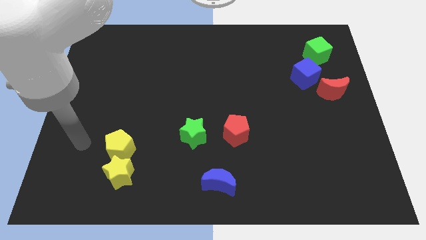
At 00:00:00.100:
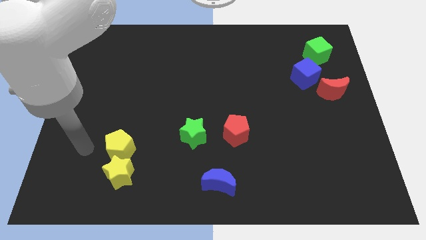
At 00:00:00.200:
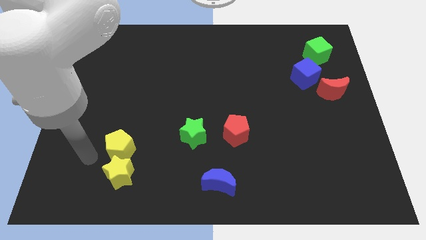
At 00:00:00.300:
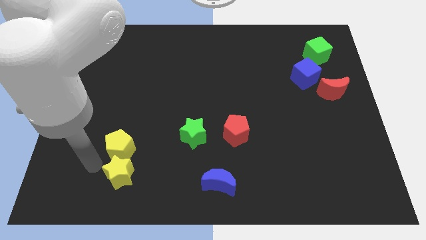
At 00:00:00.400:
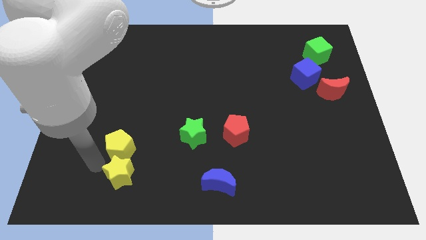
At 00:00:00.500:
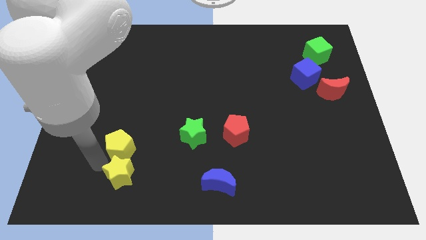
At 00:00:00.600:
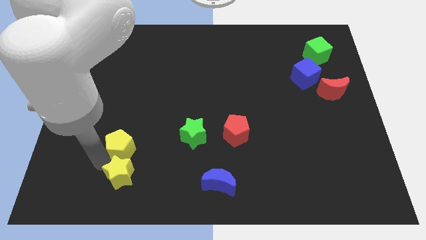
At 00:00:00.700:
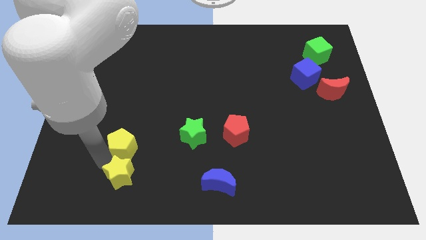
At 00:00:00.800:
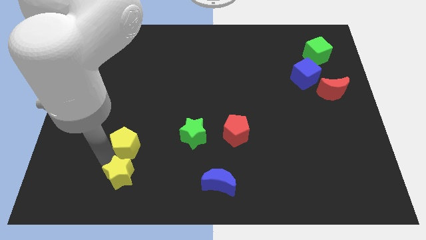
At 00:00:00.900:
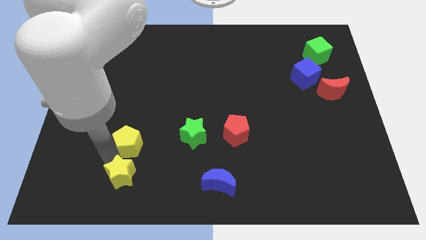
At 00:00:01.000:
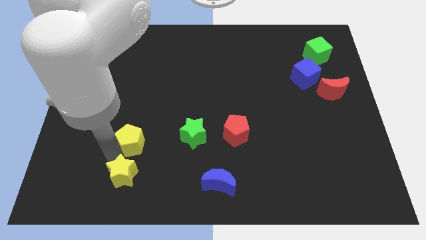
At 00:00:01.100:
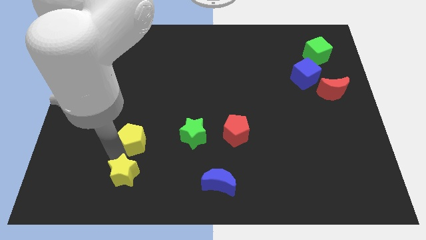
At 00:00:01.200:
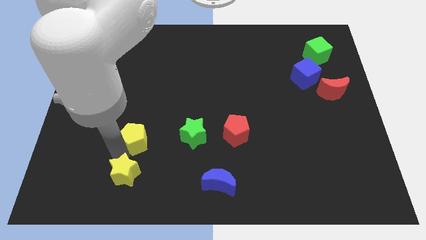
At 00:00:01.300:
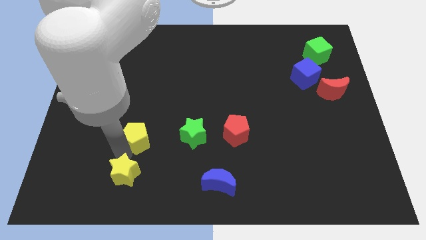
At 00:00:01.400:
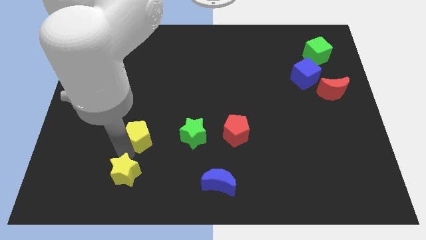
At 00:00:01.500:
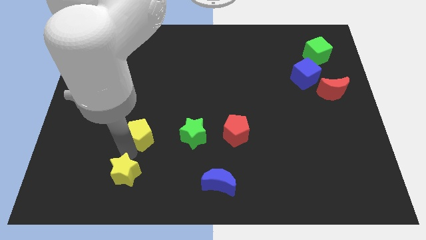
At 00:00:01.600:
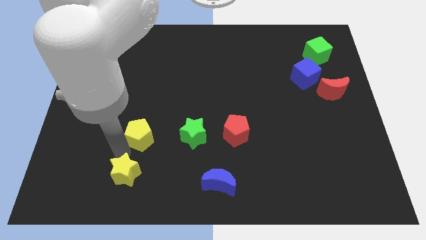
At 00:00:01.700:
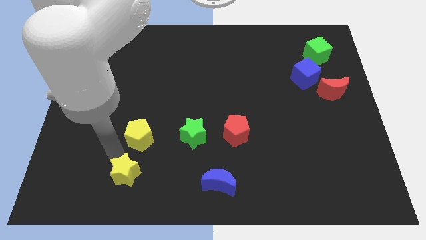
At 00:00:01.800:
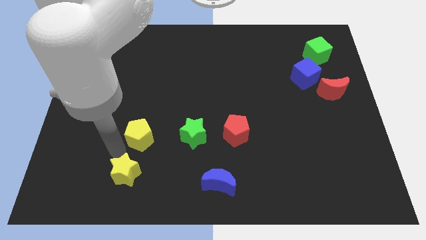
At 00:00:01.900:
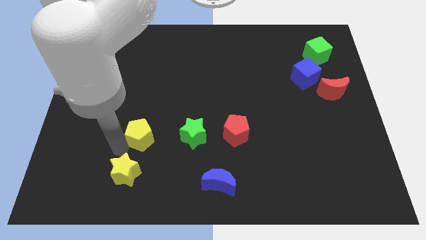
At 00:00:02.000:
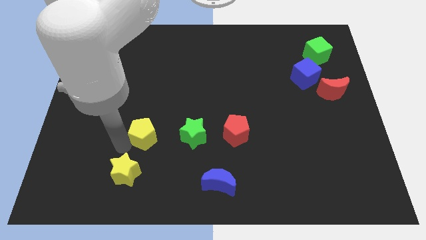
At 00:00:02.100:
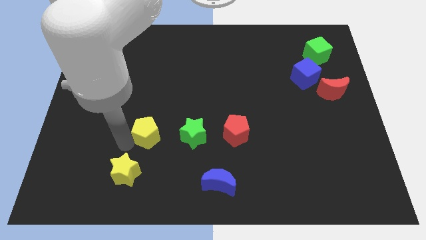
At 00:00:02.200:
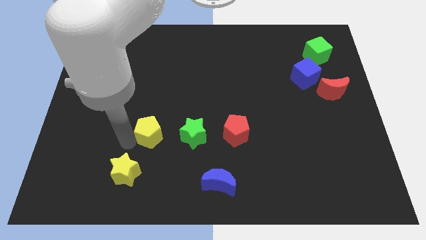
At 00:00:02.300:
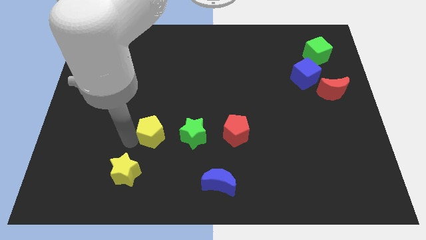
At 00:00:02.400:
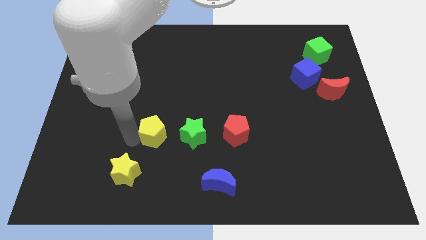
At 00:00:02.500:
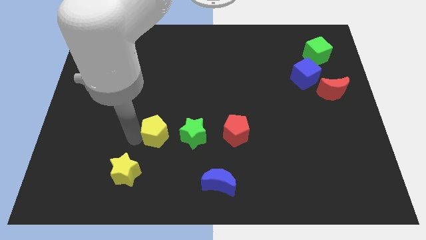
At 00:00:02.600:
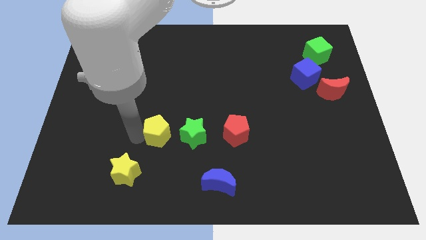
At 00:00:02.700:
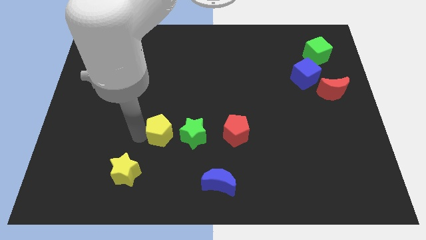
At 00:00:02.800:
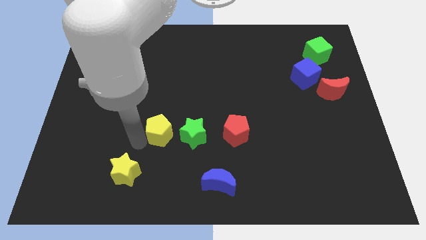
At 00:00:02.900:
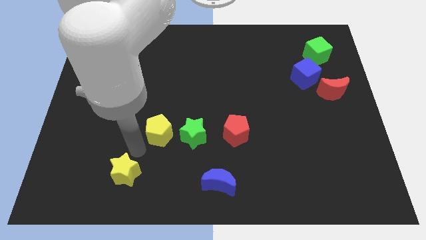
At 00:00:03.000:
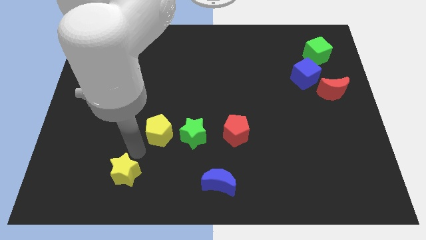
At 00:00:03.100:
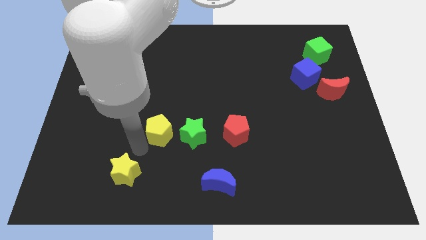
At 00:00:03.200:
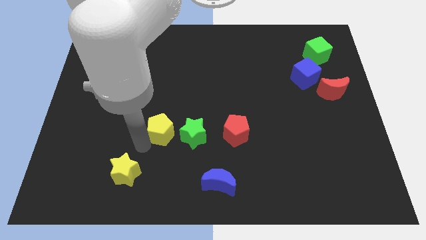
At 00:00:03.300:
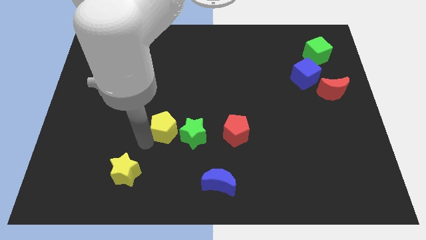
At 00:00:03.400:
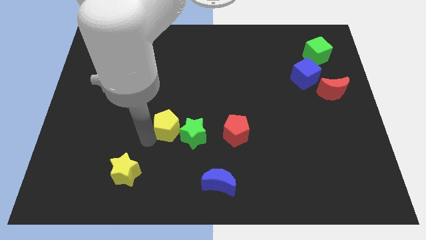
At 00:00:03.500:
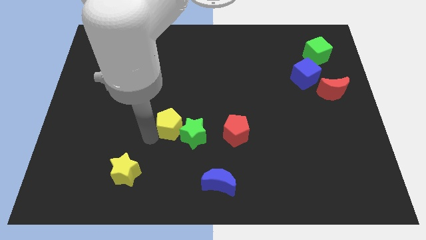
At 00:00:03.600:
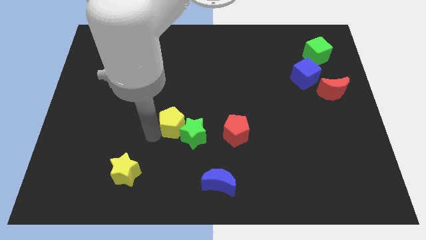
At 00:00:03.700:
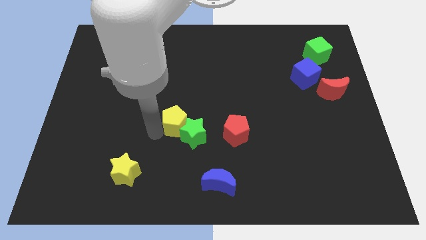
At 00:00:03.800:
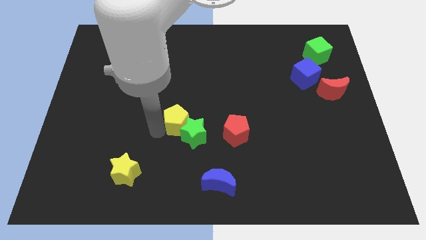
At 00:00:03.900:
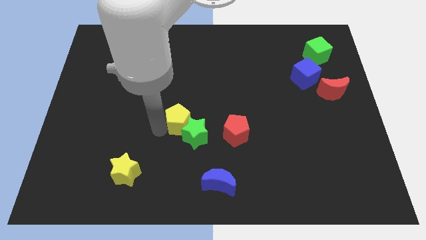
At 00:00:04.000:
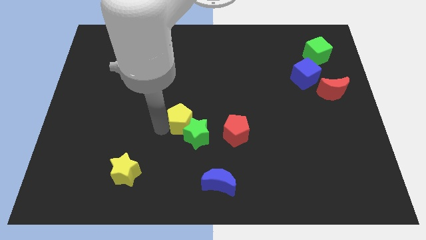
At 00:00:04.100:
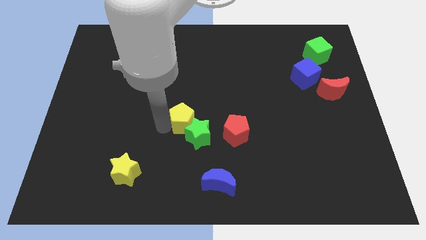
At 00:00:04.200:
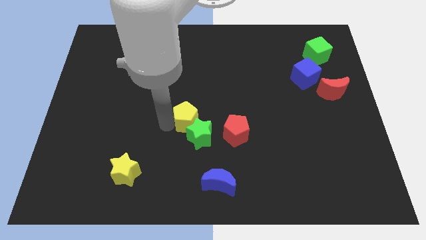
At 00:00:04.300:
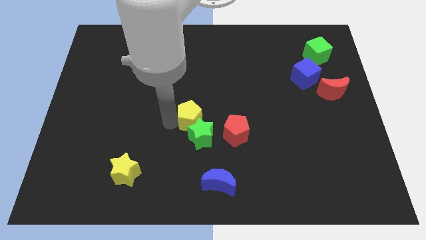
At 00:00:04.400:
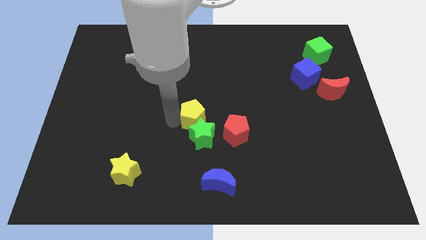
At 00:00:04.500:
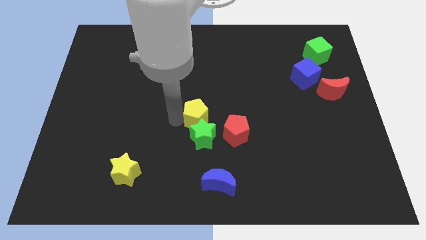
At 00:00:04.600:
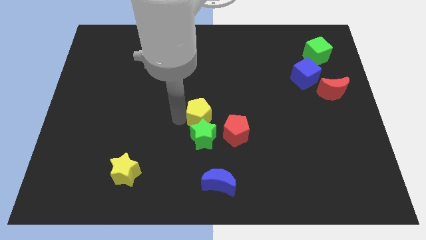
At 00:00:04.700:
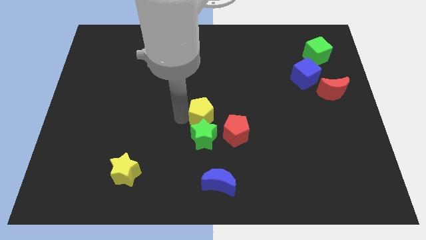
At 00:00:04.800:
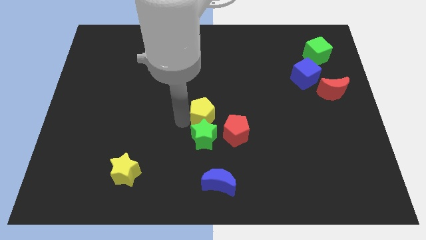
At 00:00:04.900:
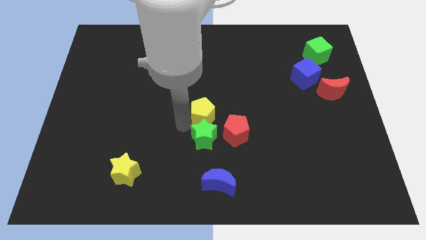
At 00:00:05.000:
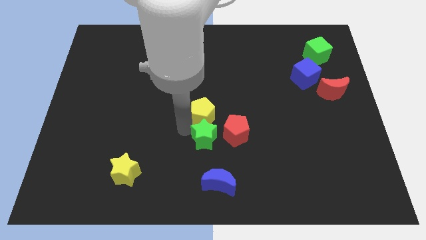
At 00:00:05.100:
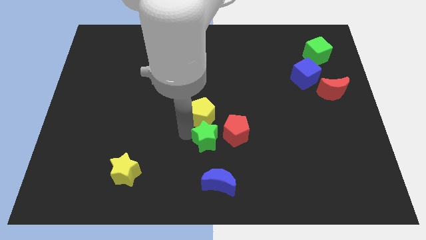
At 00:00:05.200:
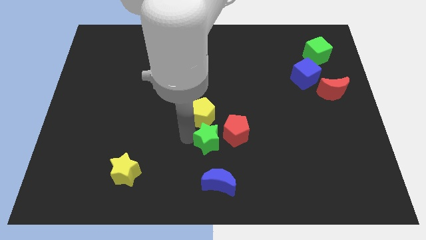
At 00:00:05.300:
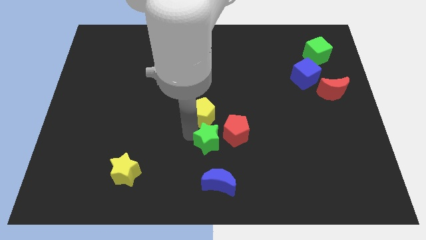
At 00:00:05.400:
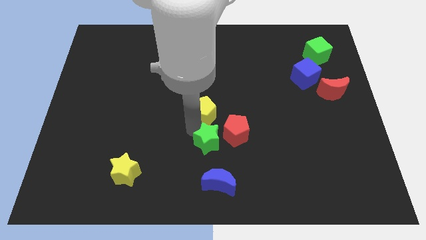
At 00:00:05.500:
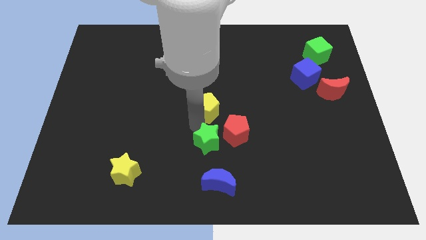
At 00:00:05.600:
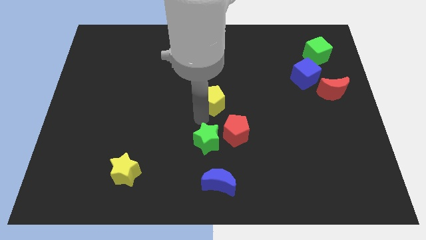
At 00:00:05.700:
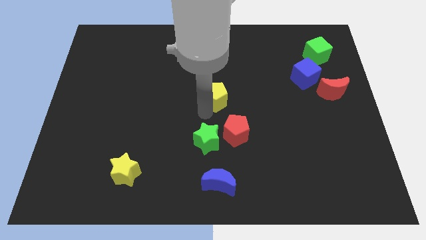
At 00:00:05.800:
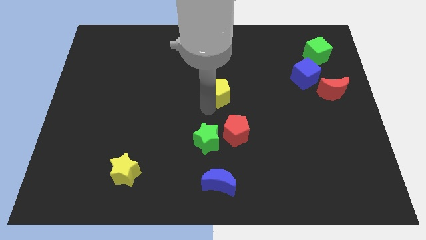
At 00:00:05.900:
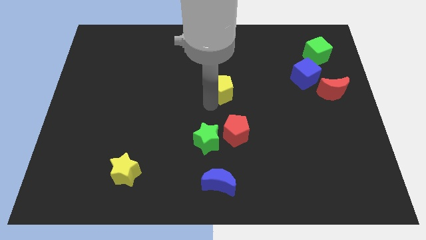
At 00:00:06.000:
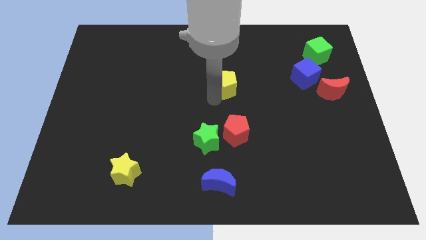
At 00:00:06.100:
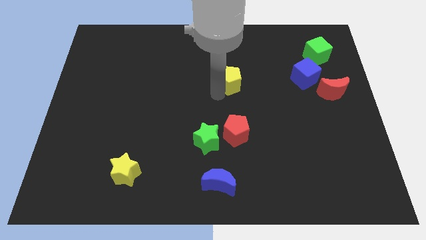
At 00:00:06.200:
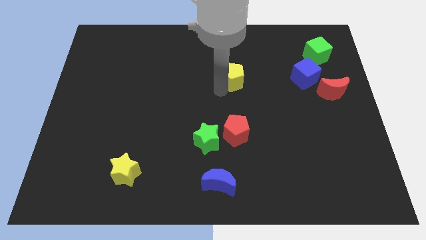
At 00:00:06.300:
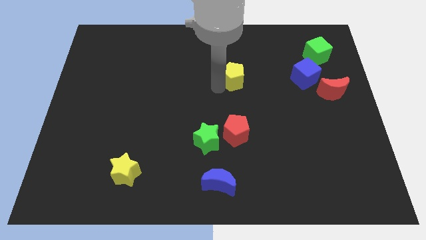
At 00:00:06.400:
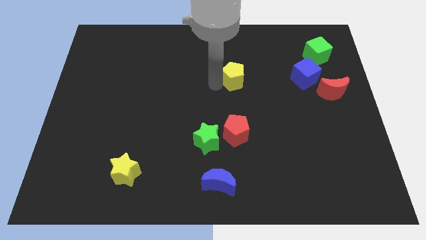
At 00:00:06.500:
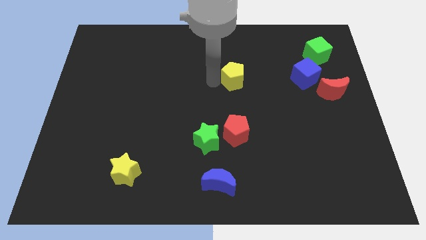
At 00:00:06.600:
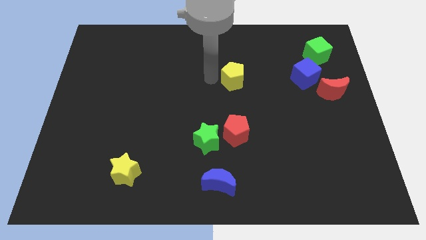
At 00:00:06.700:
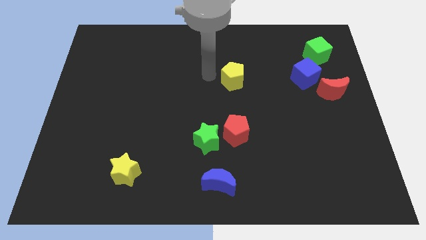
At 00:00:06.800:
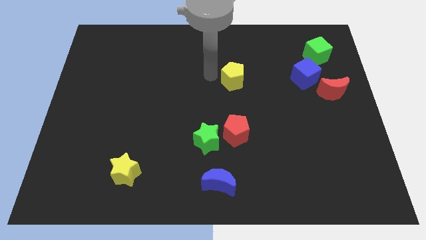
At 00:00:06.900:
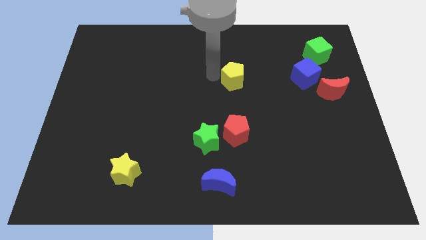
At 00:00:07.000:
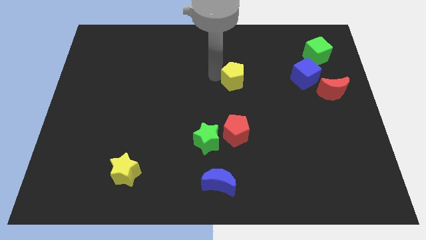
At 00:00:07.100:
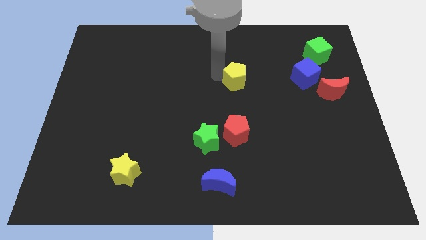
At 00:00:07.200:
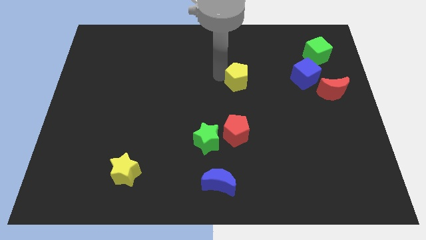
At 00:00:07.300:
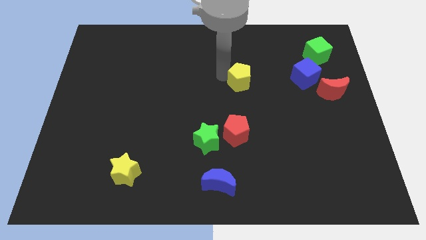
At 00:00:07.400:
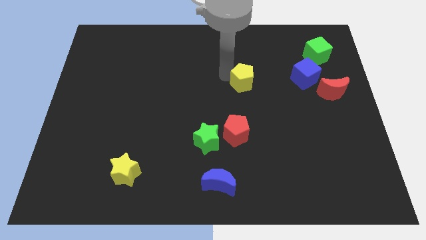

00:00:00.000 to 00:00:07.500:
push the yellow pentagon just left of the blue cube
